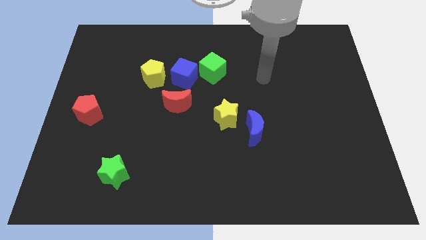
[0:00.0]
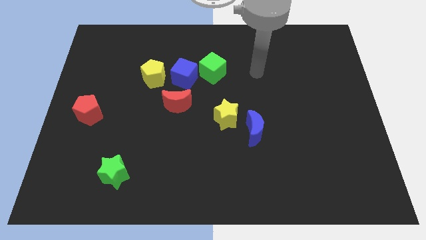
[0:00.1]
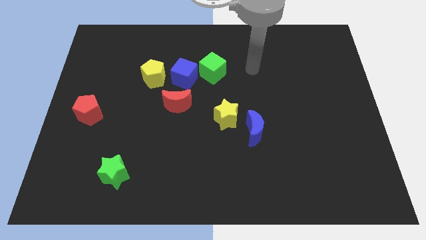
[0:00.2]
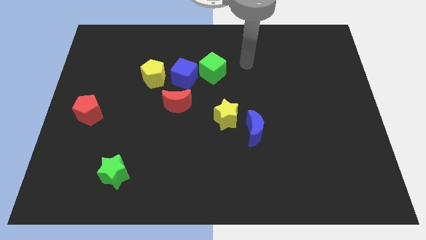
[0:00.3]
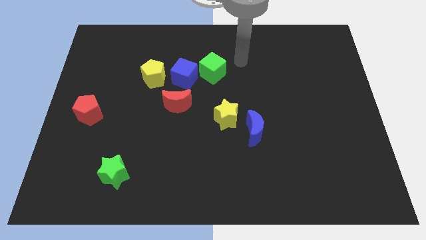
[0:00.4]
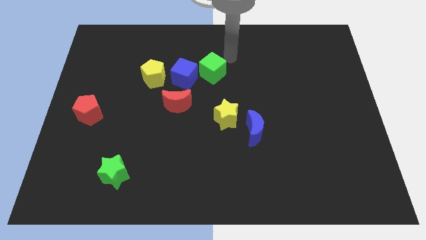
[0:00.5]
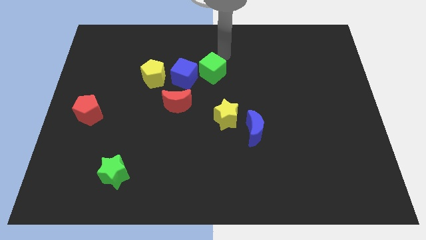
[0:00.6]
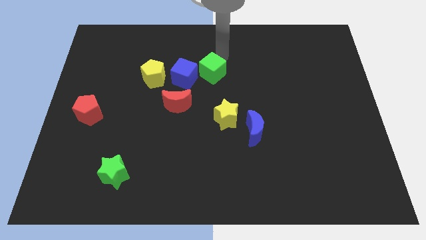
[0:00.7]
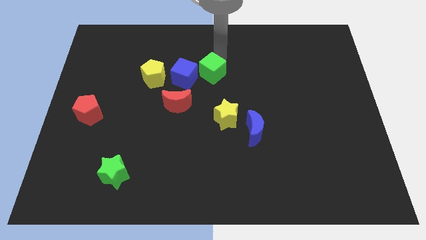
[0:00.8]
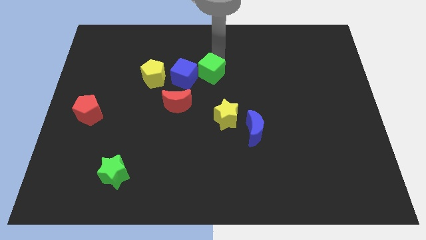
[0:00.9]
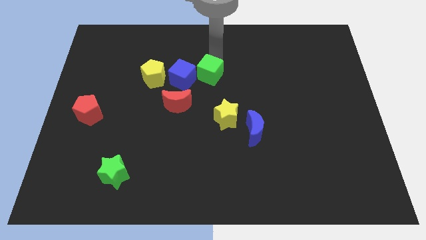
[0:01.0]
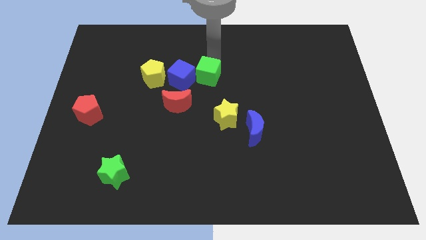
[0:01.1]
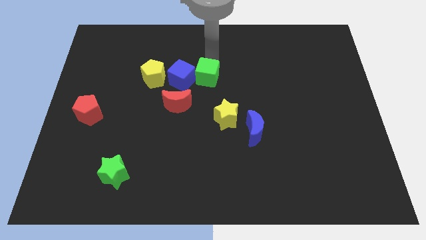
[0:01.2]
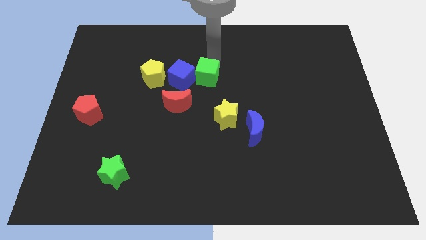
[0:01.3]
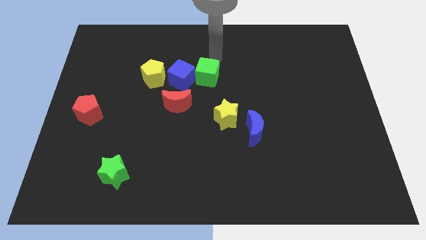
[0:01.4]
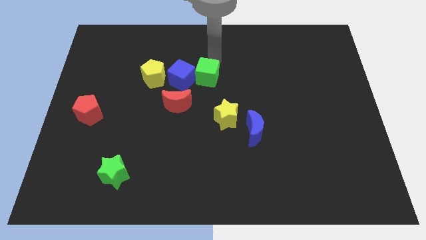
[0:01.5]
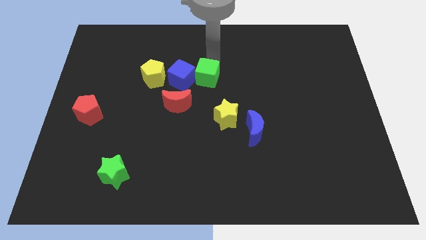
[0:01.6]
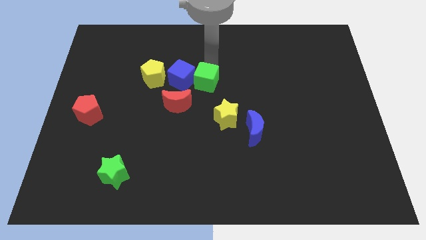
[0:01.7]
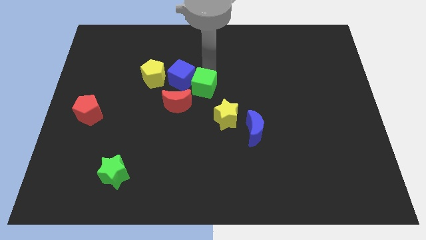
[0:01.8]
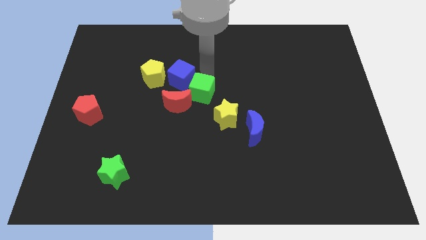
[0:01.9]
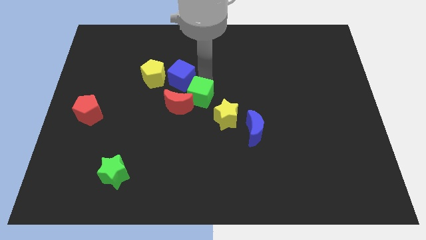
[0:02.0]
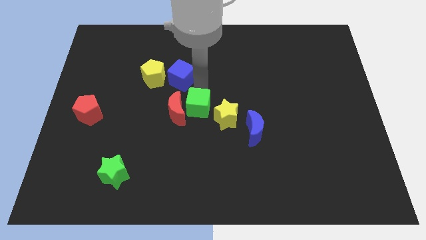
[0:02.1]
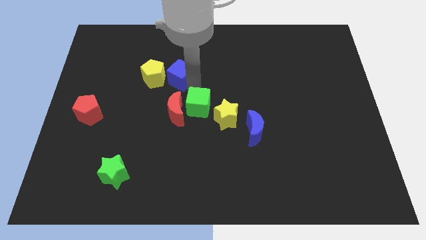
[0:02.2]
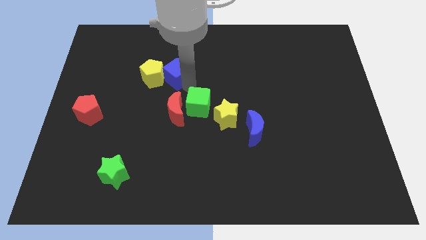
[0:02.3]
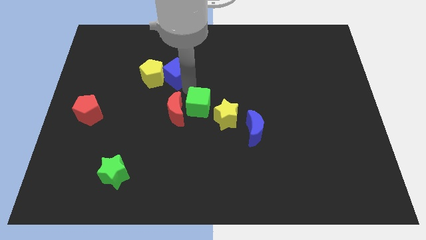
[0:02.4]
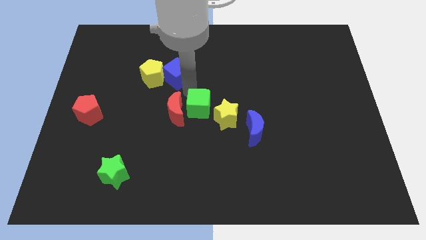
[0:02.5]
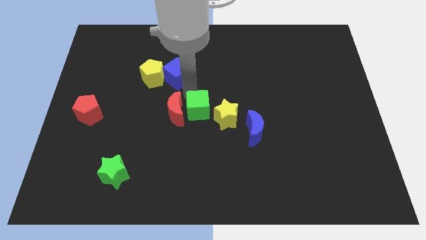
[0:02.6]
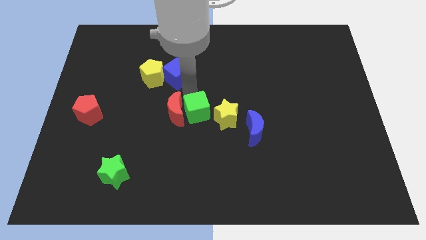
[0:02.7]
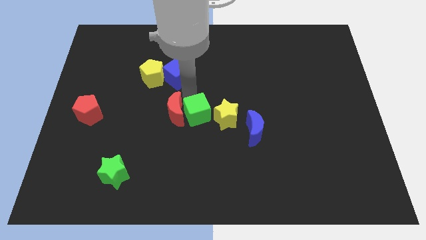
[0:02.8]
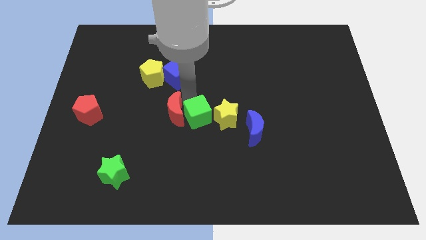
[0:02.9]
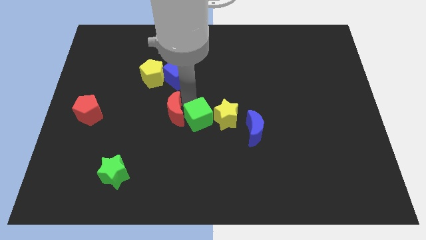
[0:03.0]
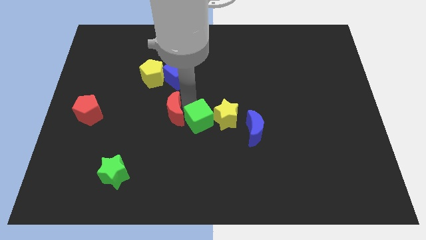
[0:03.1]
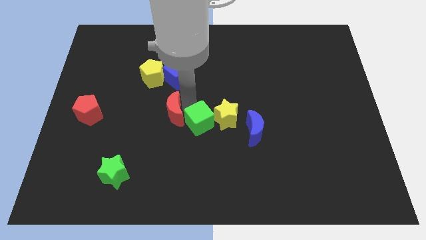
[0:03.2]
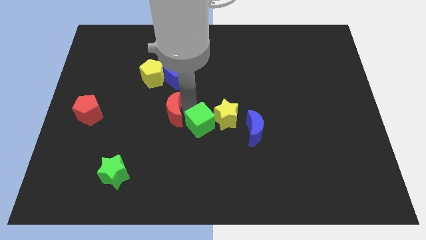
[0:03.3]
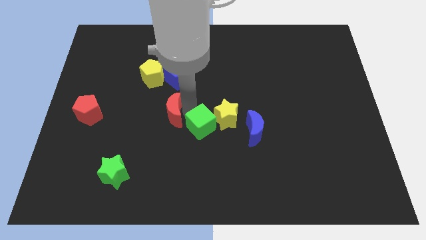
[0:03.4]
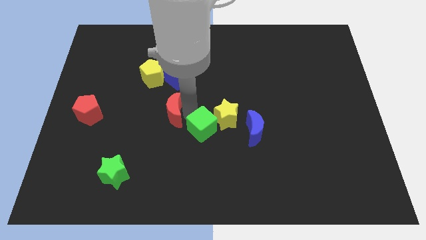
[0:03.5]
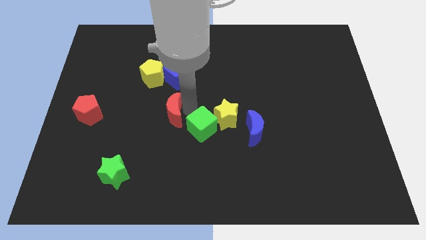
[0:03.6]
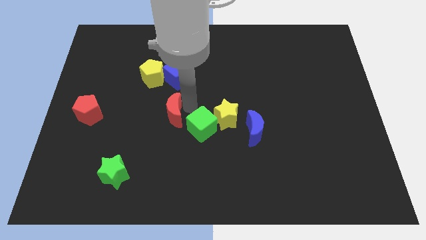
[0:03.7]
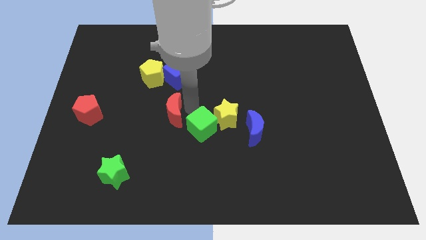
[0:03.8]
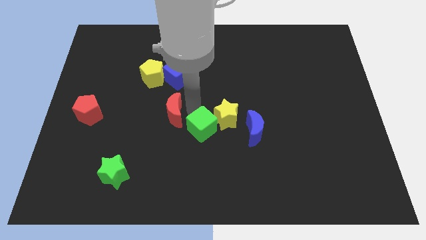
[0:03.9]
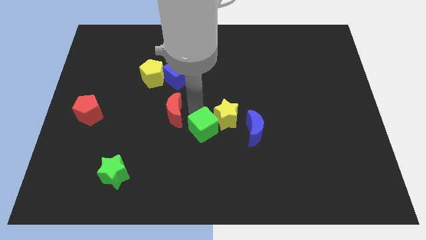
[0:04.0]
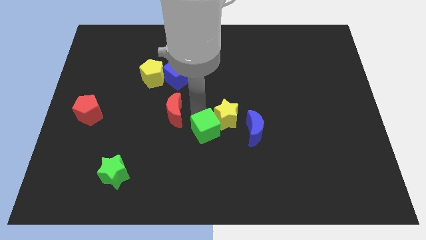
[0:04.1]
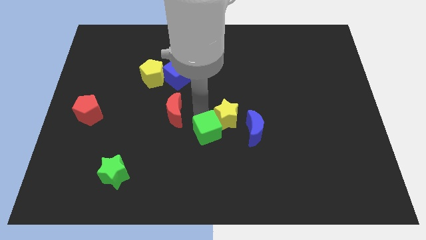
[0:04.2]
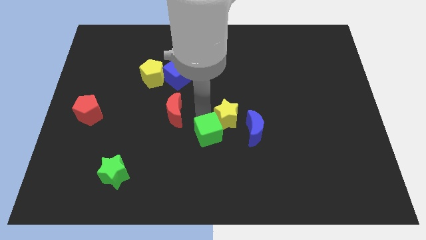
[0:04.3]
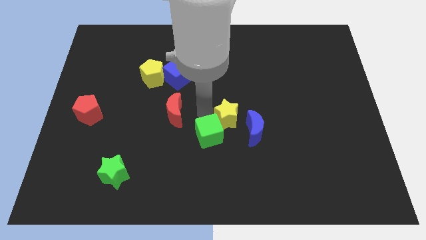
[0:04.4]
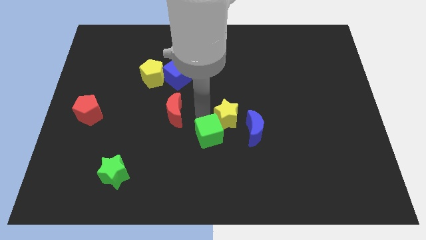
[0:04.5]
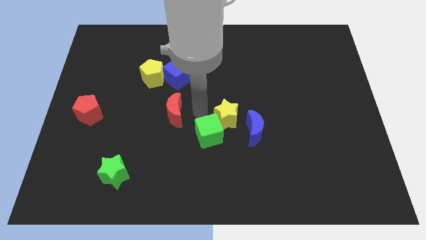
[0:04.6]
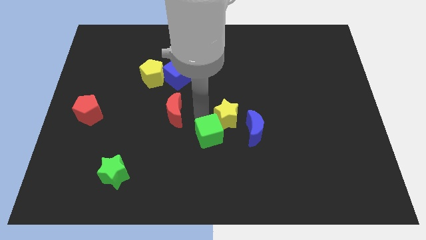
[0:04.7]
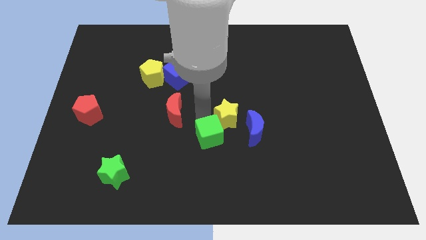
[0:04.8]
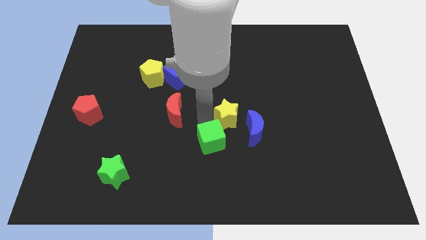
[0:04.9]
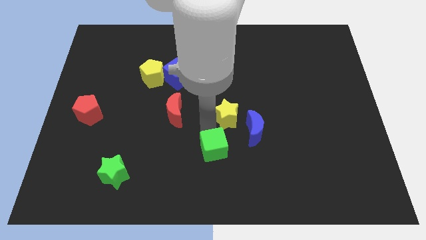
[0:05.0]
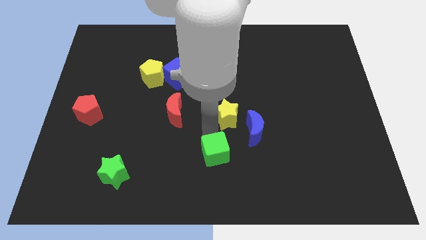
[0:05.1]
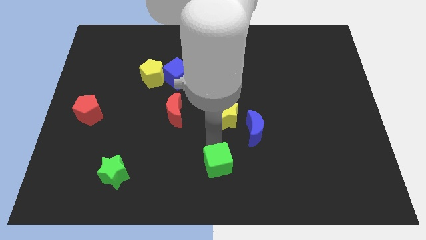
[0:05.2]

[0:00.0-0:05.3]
push the green cube to the bottom

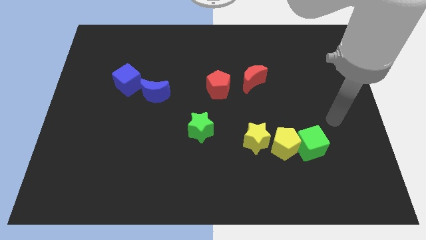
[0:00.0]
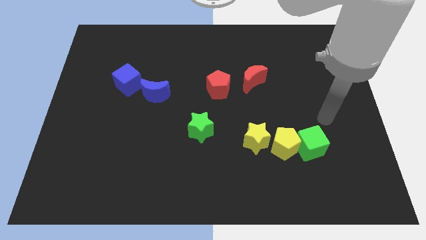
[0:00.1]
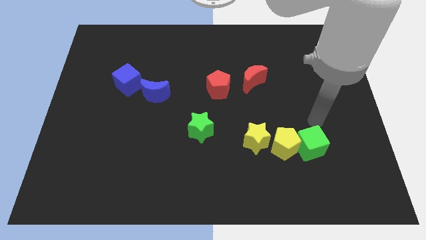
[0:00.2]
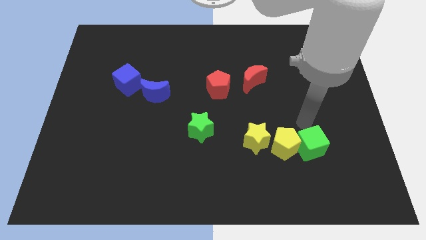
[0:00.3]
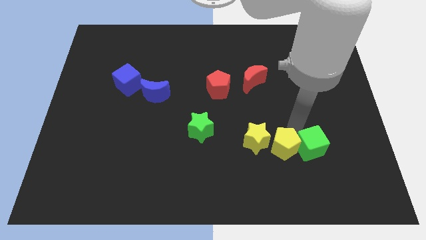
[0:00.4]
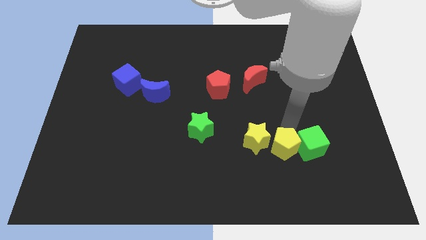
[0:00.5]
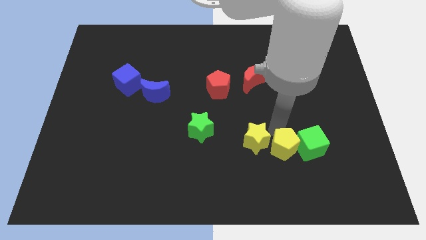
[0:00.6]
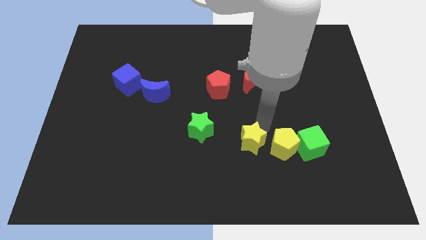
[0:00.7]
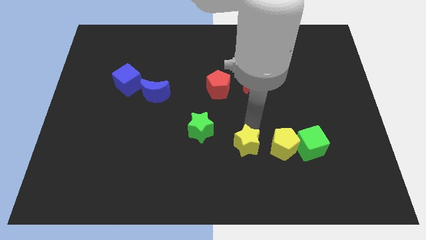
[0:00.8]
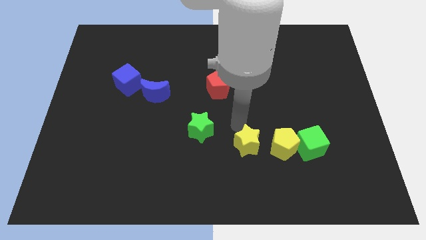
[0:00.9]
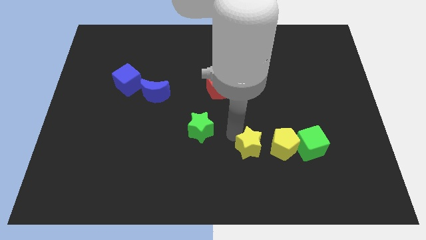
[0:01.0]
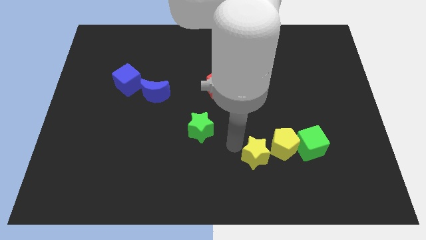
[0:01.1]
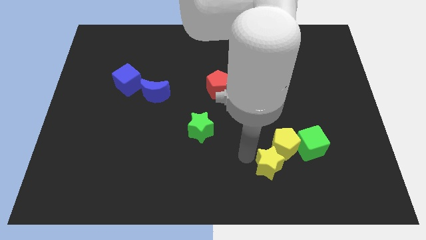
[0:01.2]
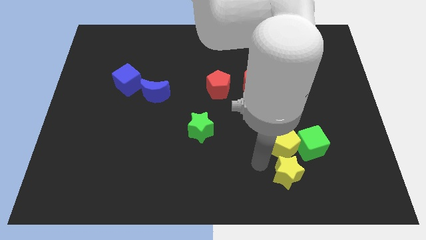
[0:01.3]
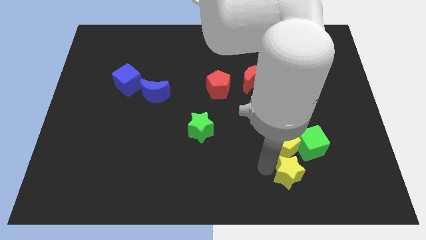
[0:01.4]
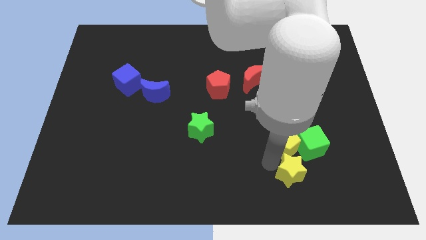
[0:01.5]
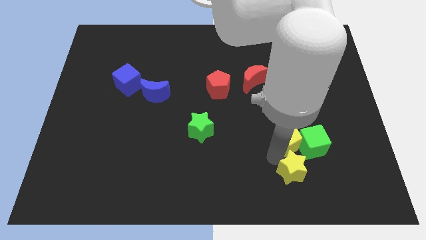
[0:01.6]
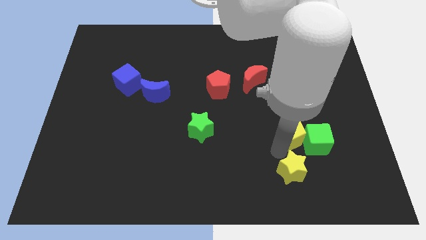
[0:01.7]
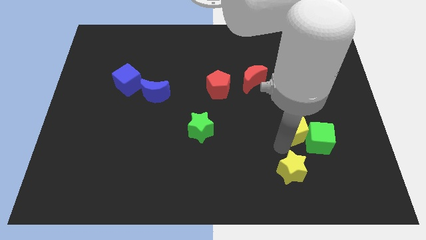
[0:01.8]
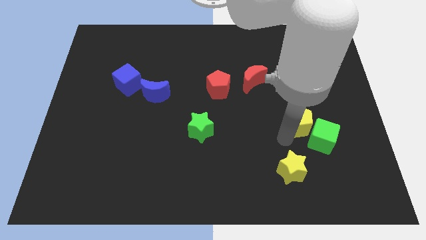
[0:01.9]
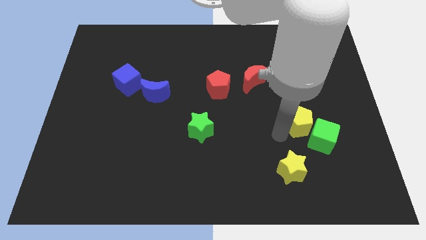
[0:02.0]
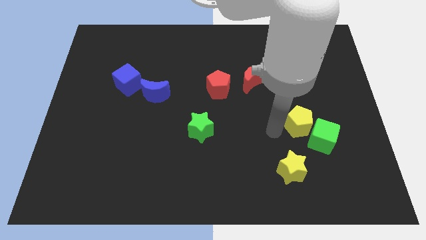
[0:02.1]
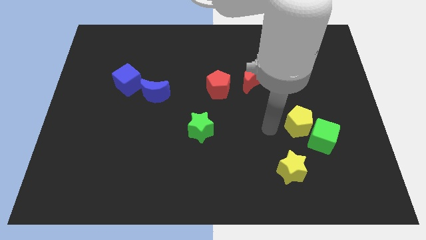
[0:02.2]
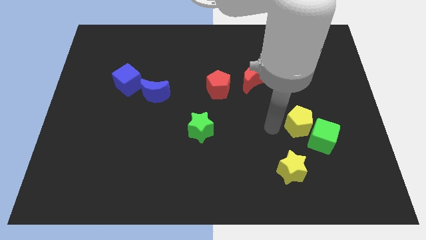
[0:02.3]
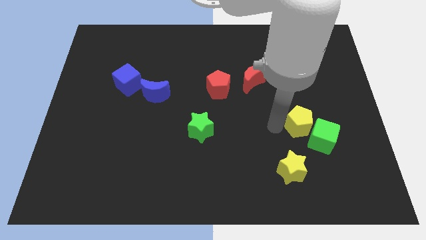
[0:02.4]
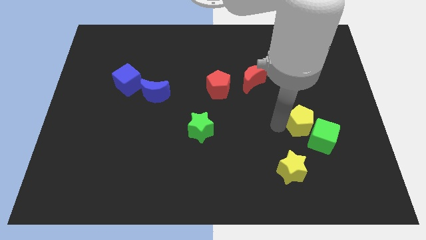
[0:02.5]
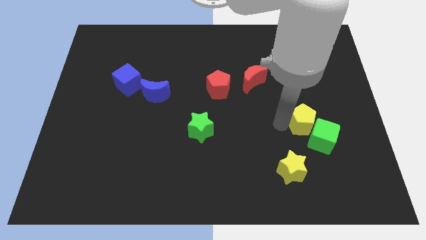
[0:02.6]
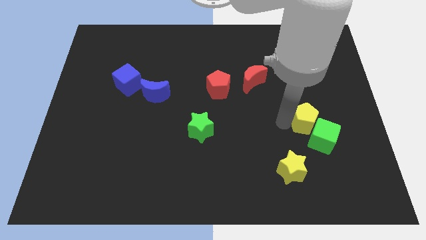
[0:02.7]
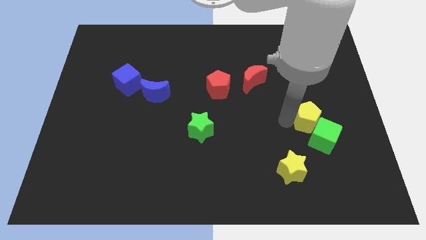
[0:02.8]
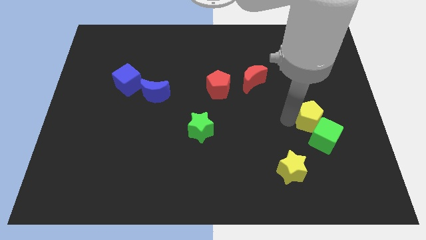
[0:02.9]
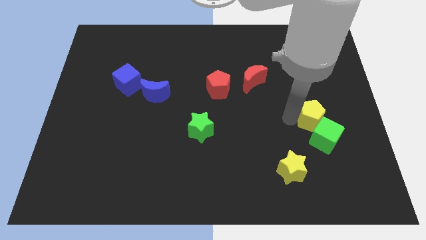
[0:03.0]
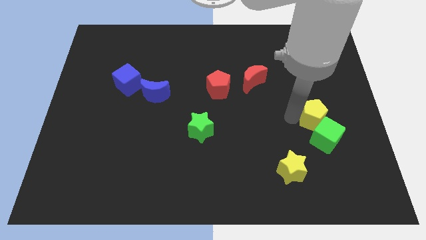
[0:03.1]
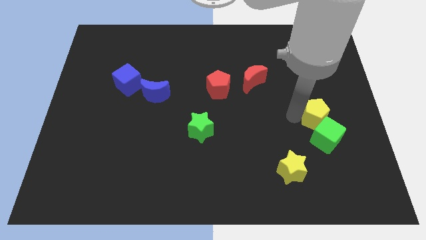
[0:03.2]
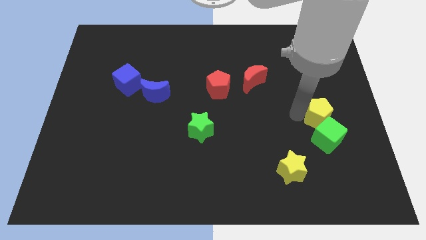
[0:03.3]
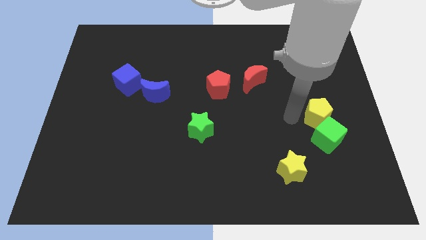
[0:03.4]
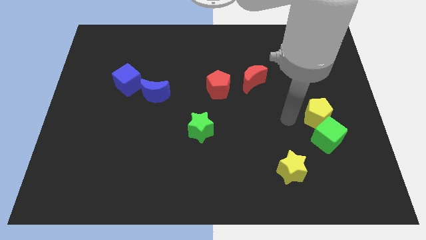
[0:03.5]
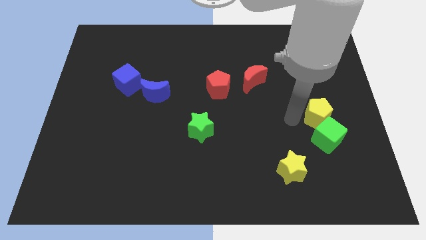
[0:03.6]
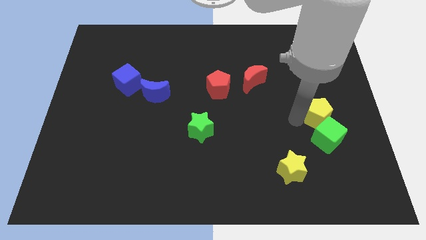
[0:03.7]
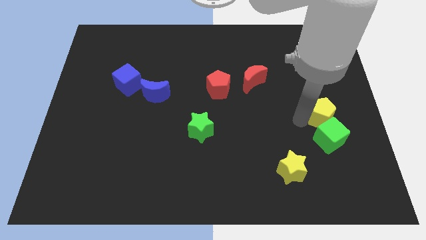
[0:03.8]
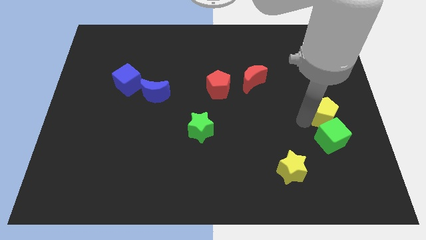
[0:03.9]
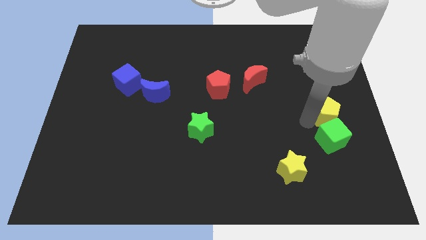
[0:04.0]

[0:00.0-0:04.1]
move the yellow pentagon to the right side
